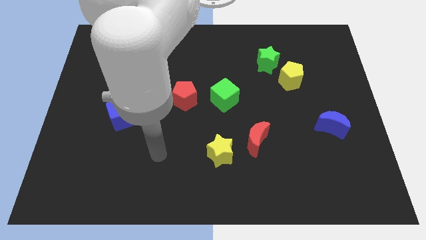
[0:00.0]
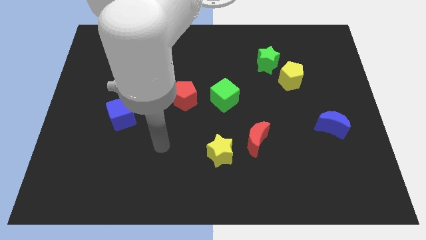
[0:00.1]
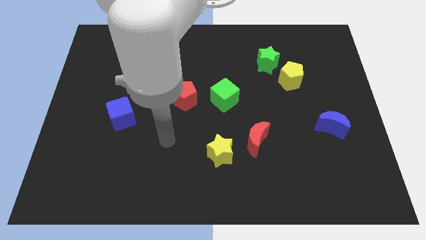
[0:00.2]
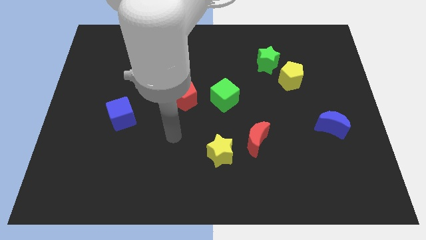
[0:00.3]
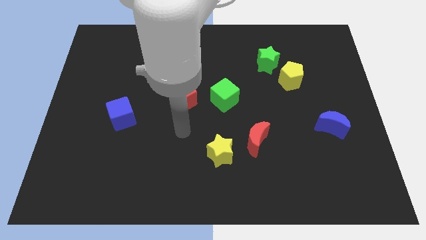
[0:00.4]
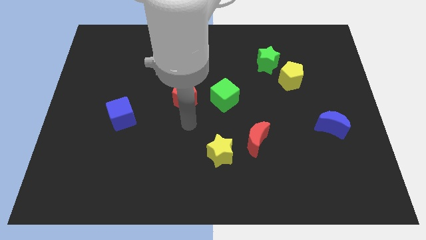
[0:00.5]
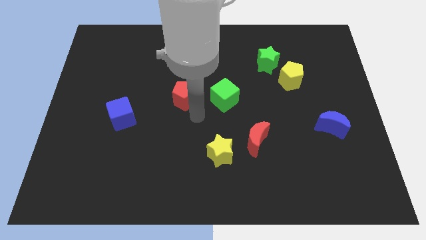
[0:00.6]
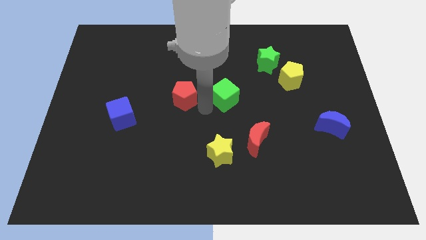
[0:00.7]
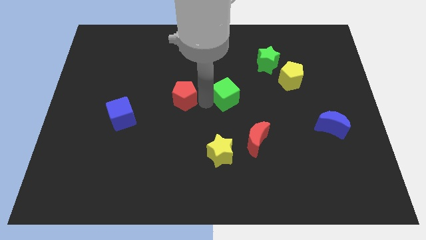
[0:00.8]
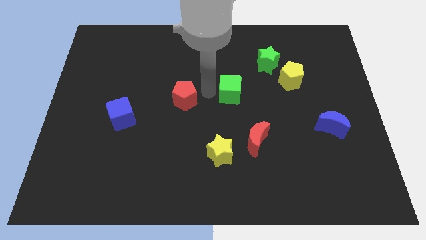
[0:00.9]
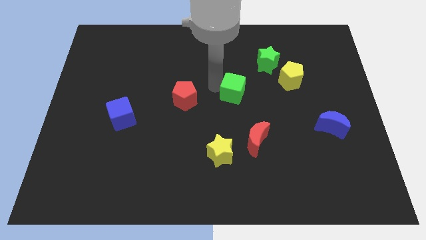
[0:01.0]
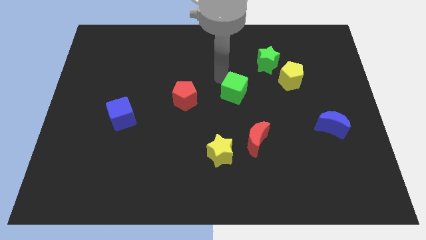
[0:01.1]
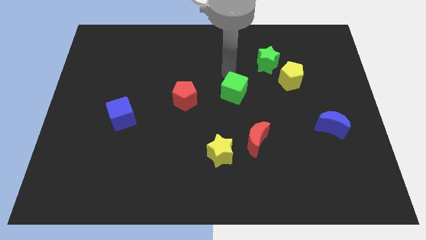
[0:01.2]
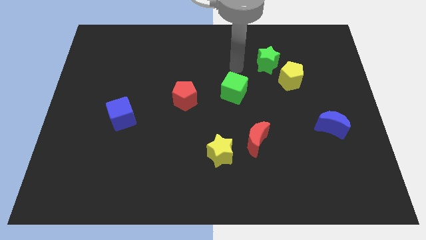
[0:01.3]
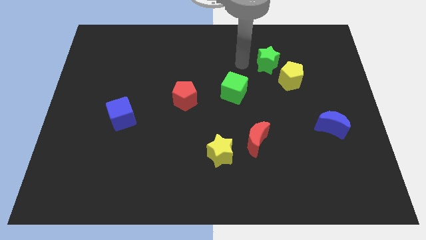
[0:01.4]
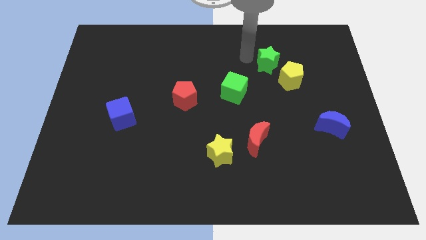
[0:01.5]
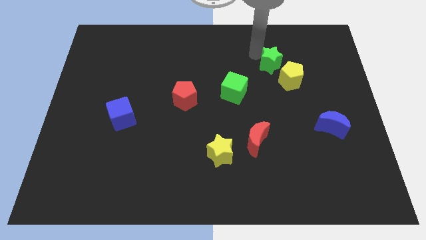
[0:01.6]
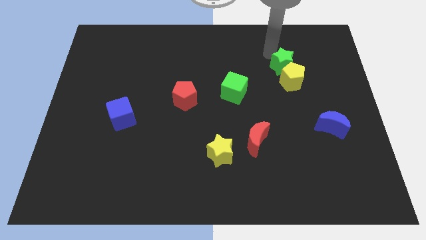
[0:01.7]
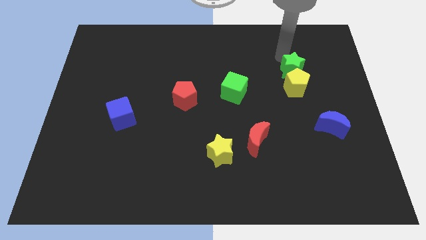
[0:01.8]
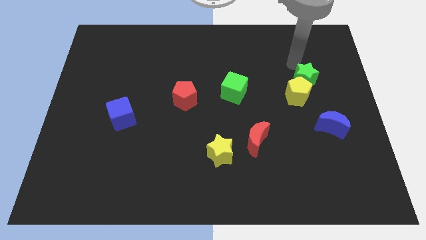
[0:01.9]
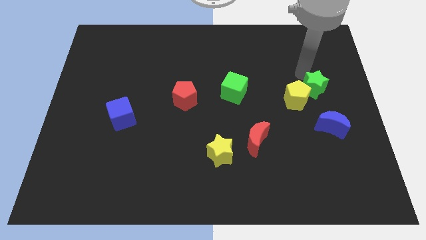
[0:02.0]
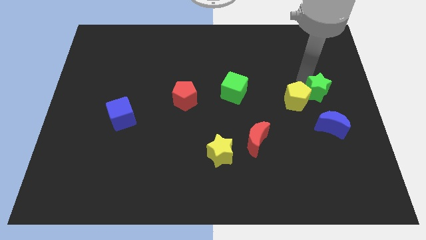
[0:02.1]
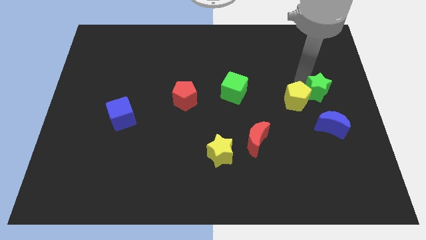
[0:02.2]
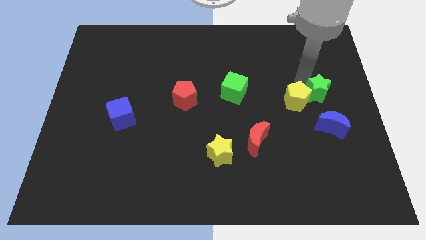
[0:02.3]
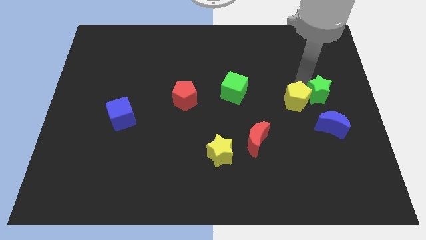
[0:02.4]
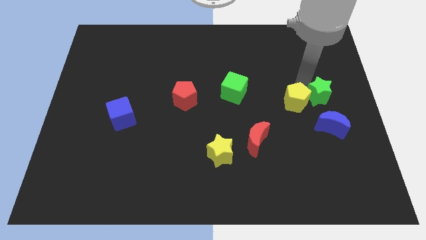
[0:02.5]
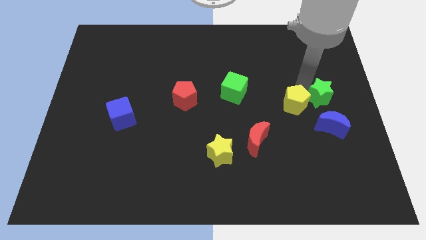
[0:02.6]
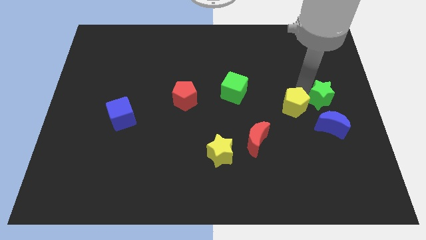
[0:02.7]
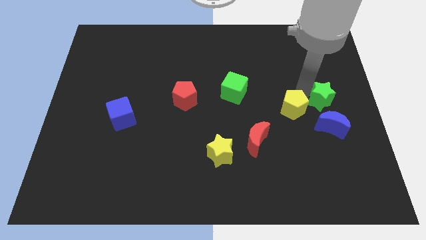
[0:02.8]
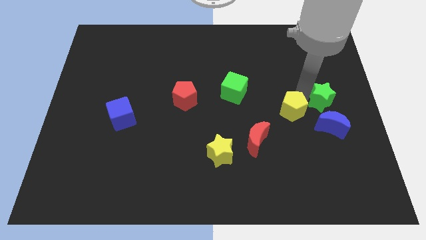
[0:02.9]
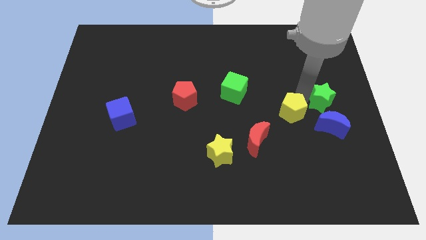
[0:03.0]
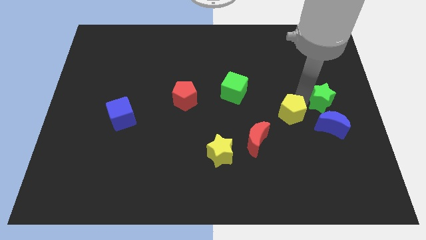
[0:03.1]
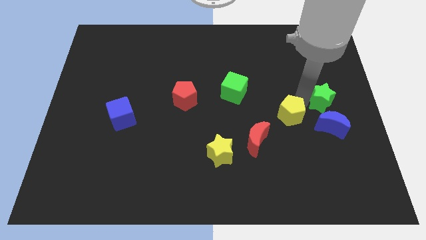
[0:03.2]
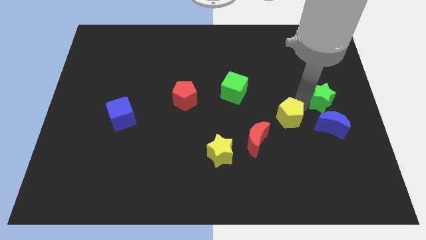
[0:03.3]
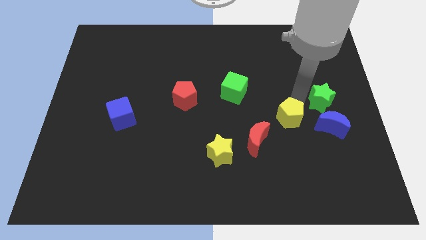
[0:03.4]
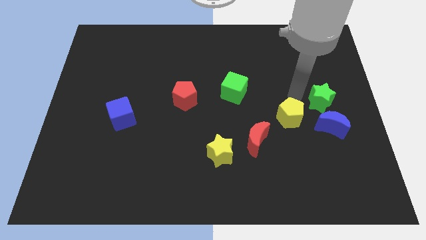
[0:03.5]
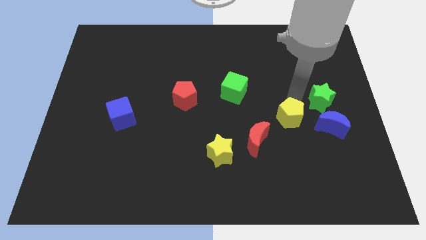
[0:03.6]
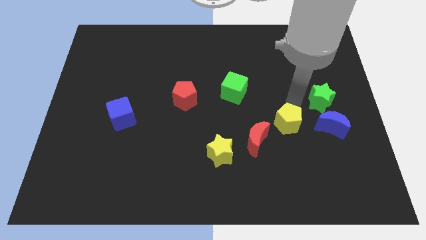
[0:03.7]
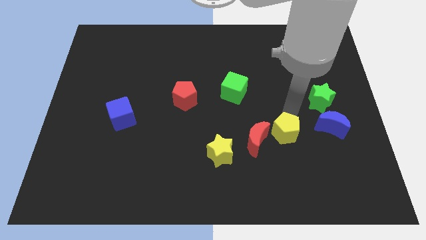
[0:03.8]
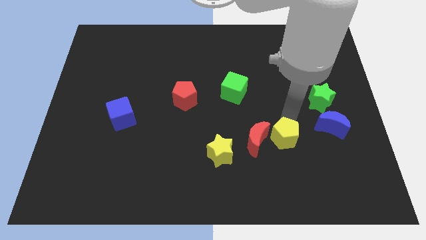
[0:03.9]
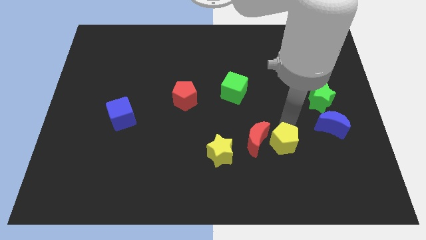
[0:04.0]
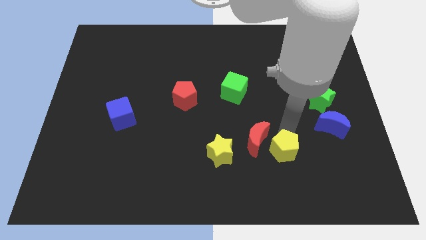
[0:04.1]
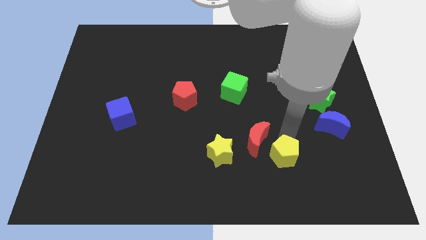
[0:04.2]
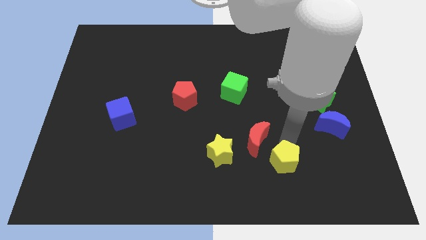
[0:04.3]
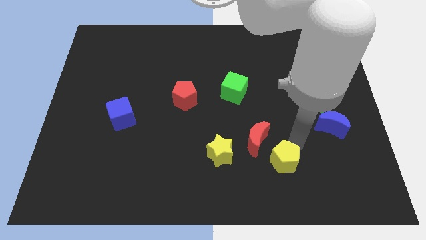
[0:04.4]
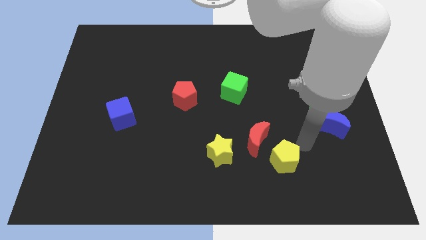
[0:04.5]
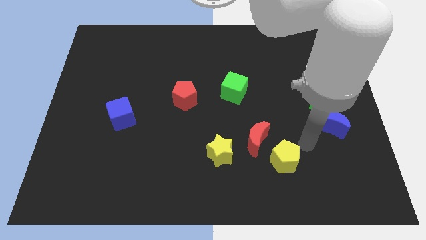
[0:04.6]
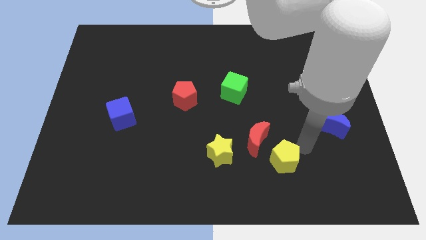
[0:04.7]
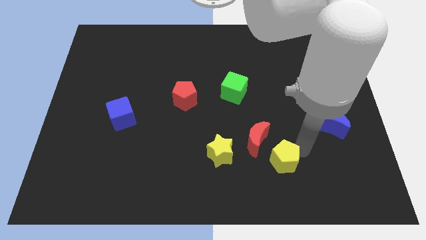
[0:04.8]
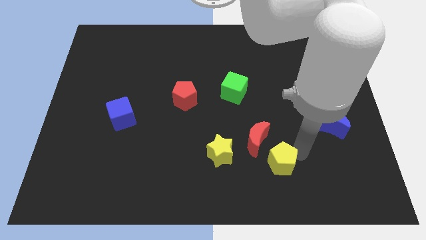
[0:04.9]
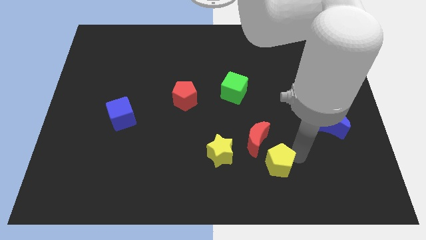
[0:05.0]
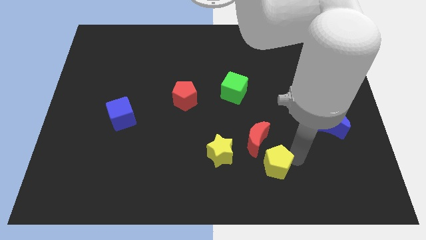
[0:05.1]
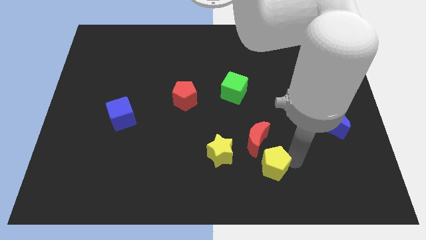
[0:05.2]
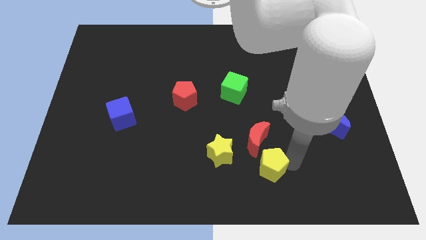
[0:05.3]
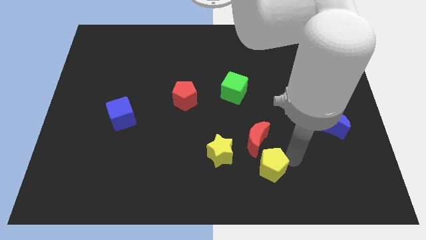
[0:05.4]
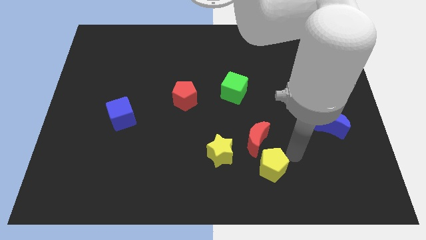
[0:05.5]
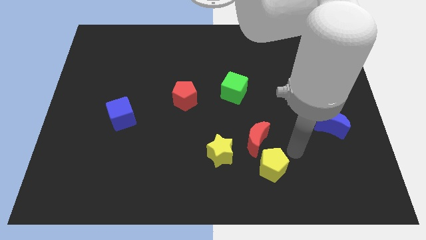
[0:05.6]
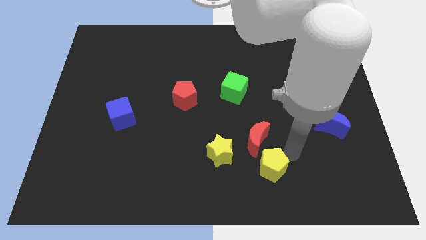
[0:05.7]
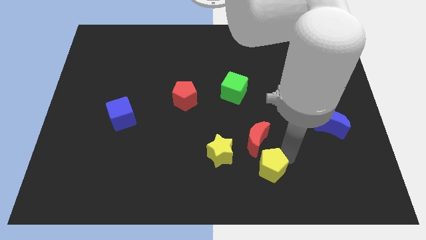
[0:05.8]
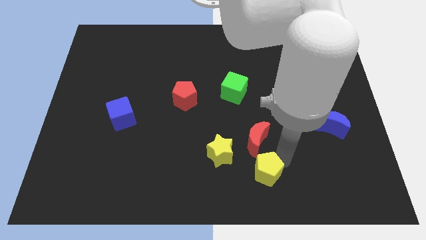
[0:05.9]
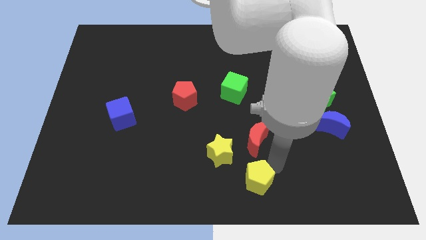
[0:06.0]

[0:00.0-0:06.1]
push the yellow pentagon to the bottom side
